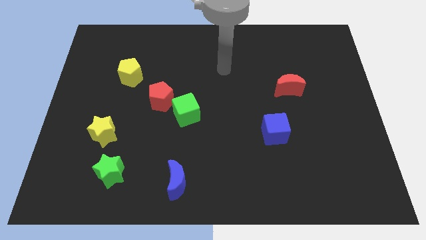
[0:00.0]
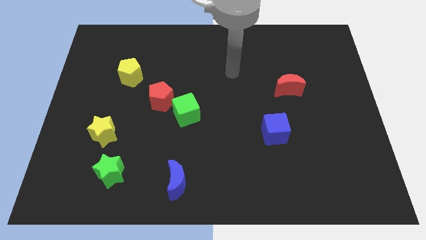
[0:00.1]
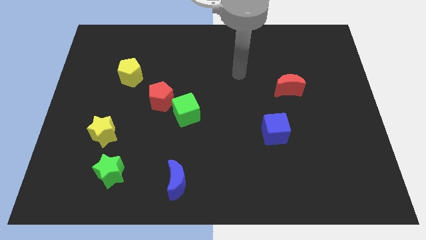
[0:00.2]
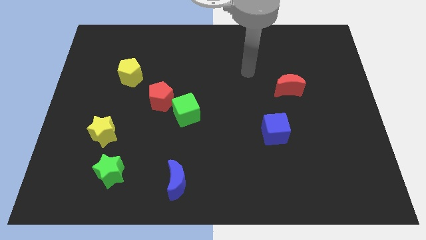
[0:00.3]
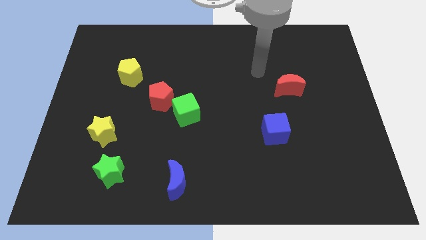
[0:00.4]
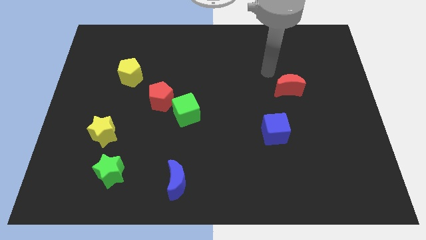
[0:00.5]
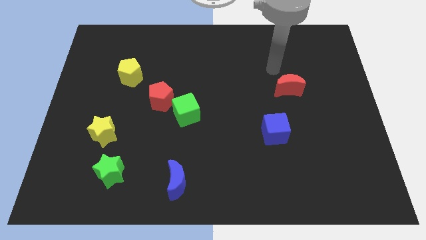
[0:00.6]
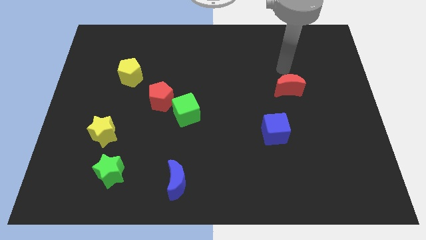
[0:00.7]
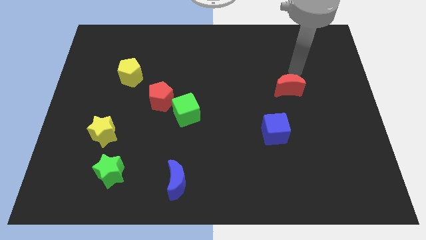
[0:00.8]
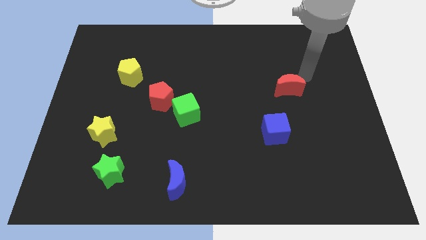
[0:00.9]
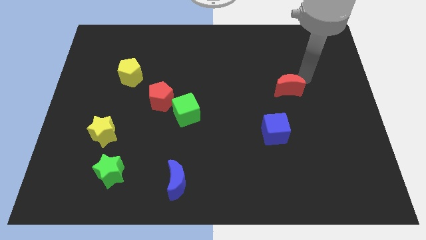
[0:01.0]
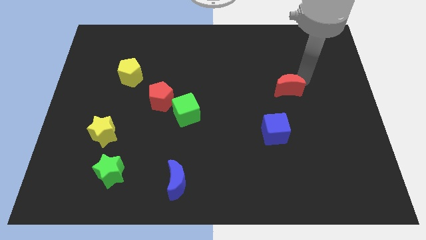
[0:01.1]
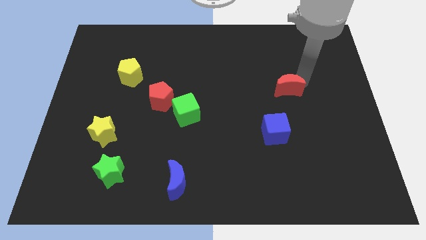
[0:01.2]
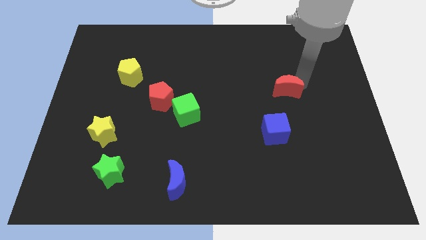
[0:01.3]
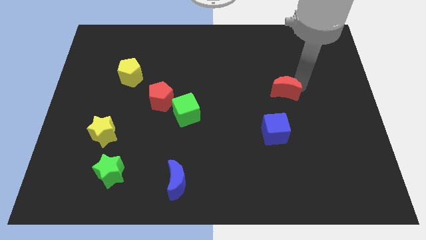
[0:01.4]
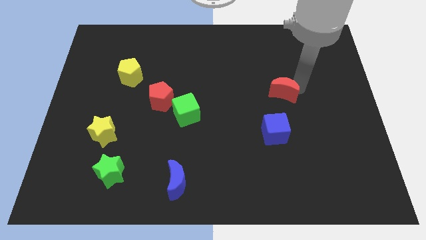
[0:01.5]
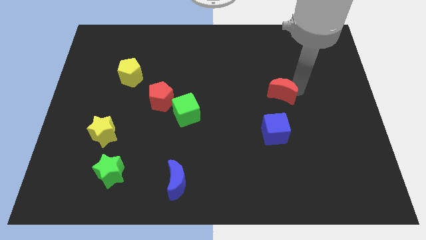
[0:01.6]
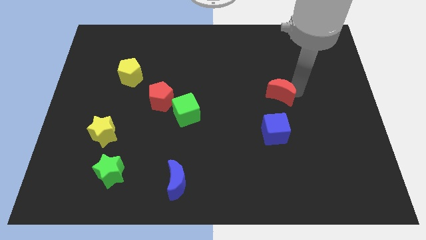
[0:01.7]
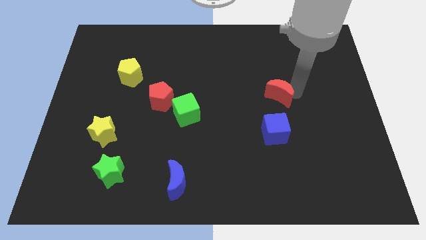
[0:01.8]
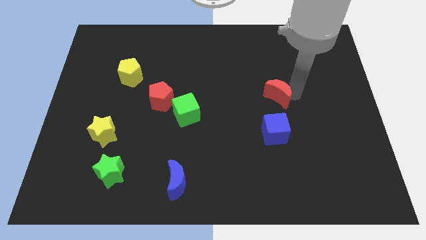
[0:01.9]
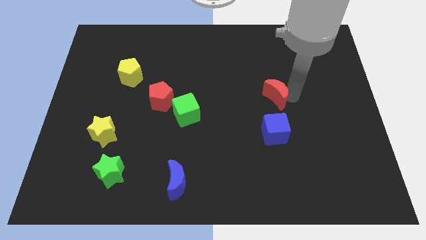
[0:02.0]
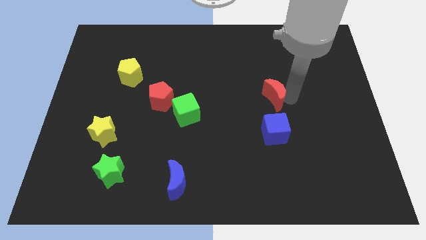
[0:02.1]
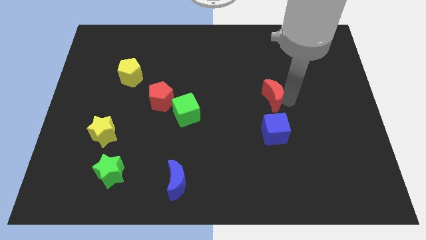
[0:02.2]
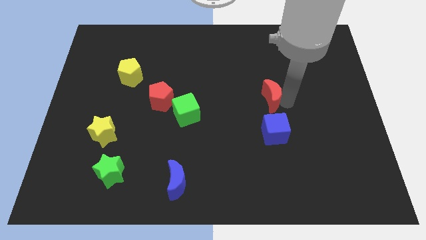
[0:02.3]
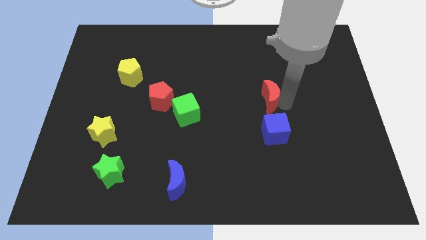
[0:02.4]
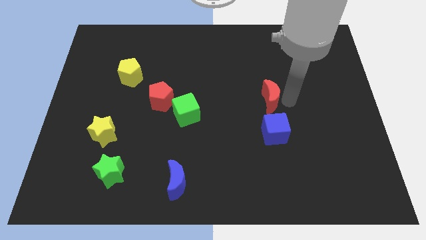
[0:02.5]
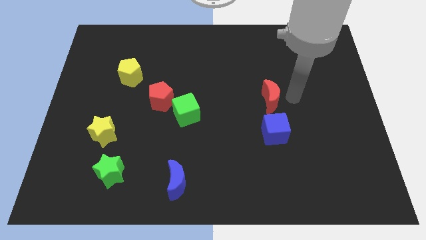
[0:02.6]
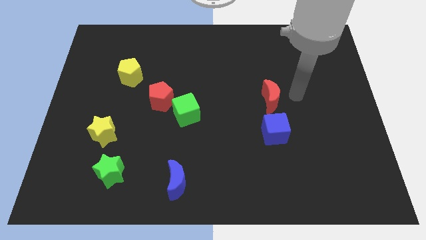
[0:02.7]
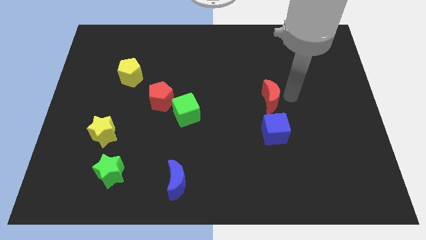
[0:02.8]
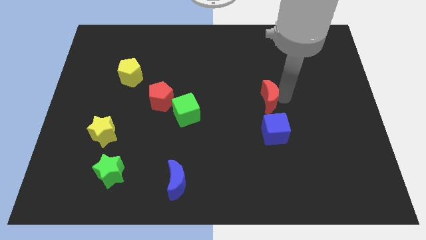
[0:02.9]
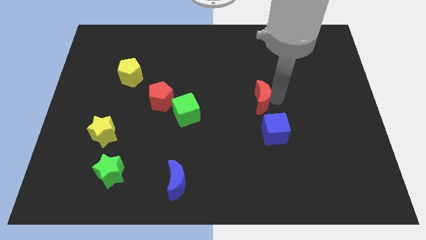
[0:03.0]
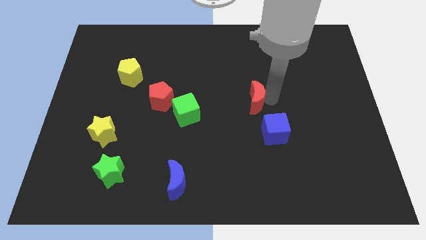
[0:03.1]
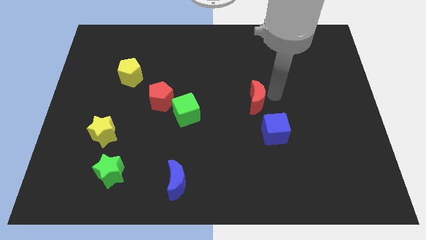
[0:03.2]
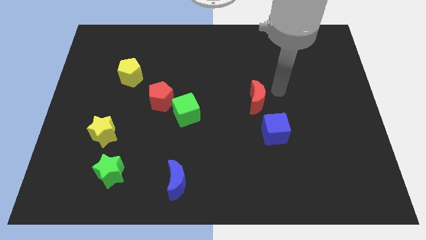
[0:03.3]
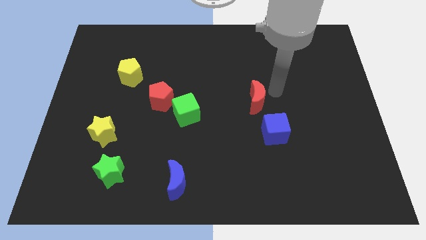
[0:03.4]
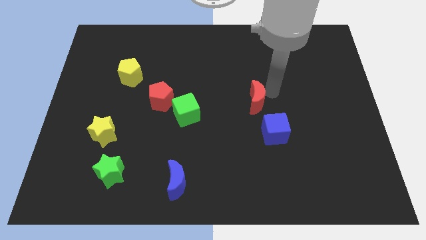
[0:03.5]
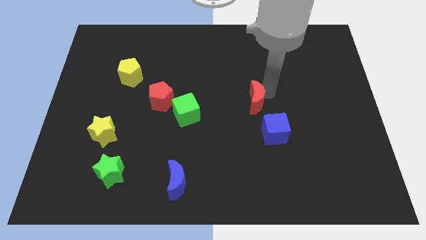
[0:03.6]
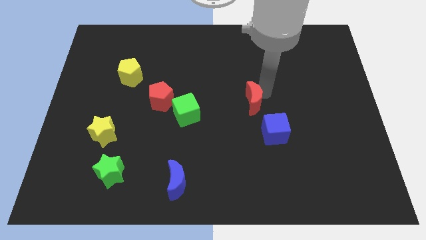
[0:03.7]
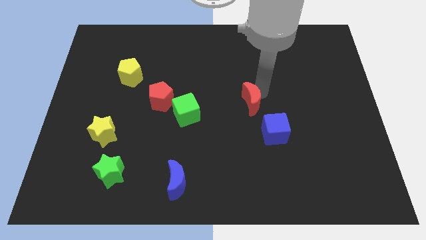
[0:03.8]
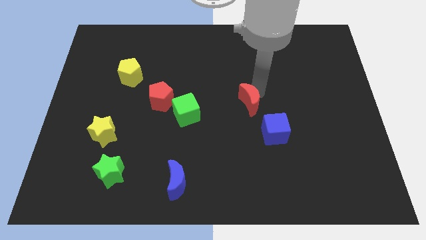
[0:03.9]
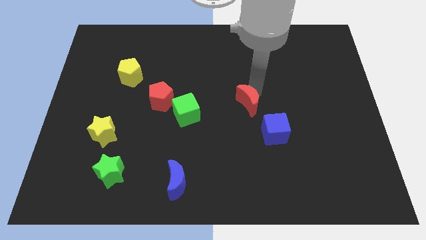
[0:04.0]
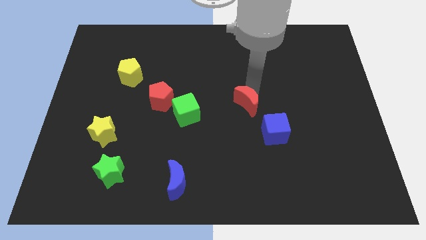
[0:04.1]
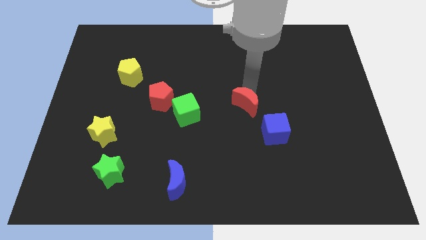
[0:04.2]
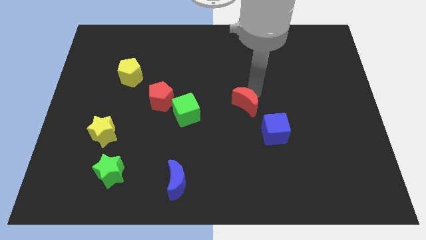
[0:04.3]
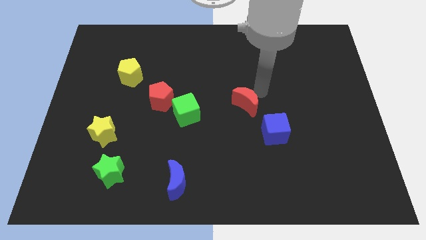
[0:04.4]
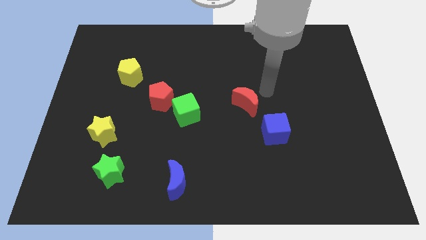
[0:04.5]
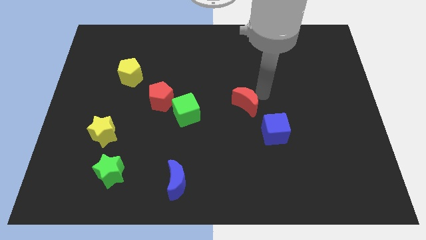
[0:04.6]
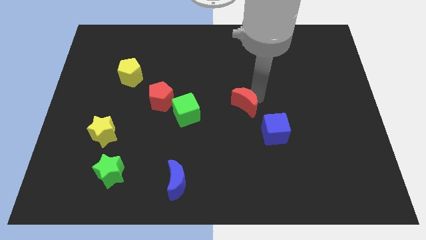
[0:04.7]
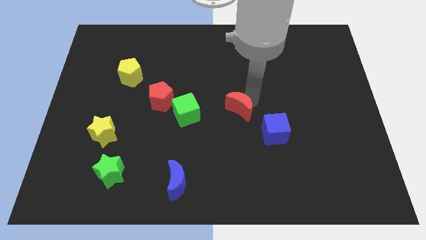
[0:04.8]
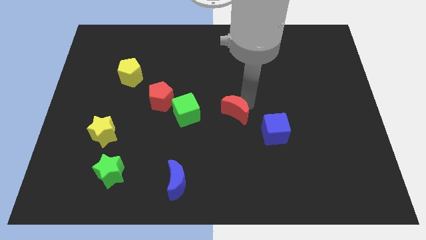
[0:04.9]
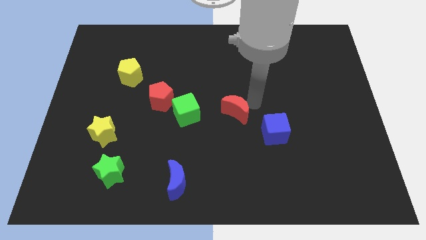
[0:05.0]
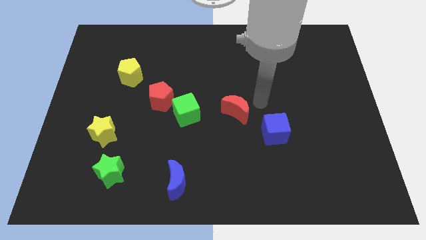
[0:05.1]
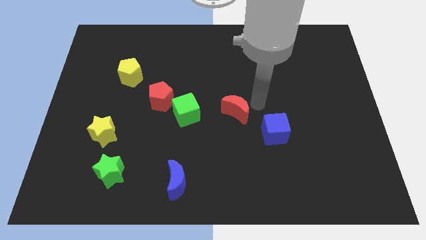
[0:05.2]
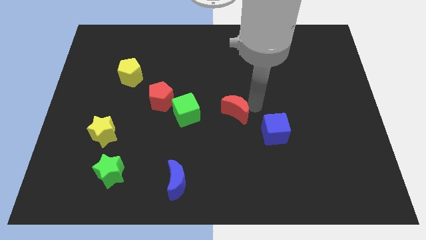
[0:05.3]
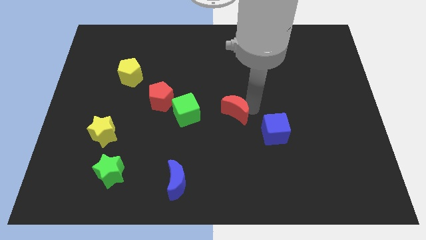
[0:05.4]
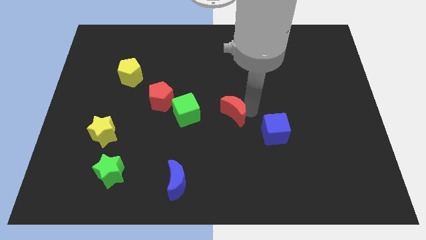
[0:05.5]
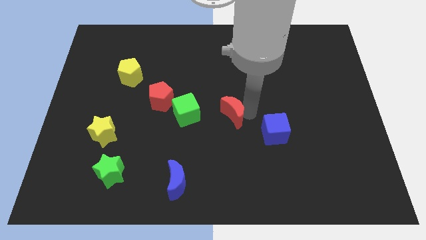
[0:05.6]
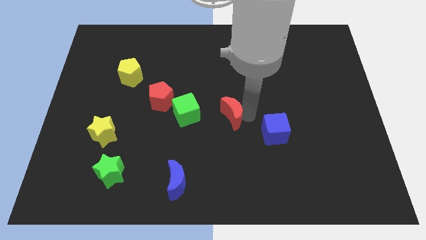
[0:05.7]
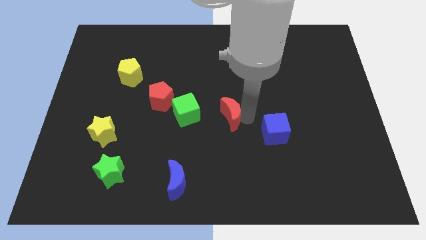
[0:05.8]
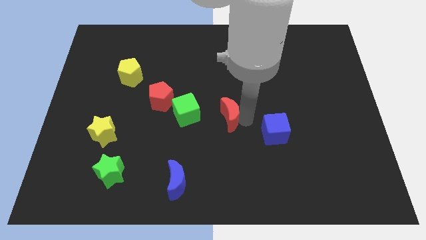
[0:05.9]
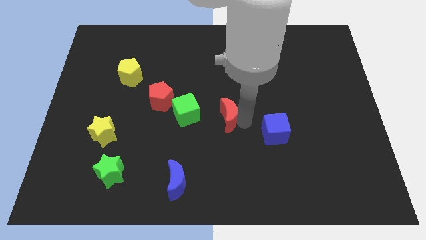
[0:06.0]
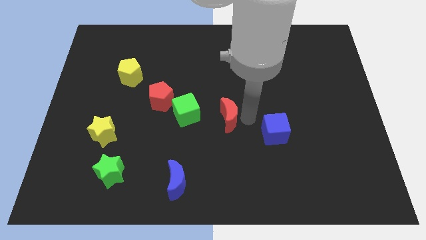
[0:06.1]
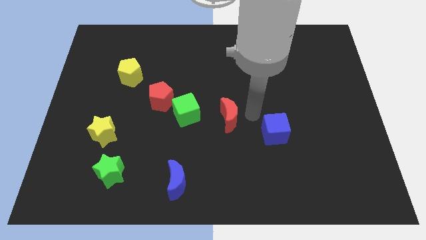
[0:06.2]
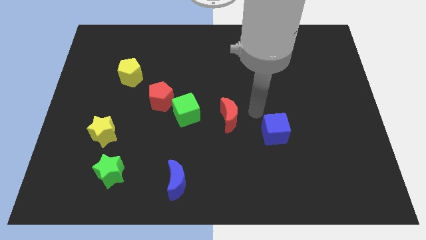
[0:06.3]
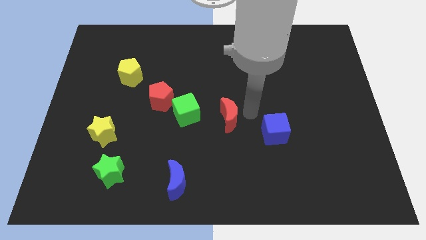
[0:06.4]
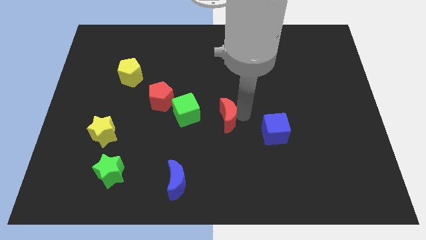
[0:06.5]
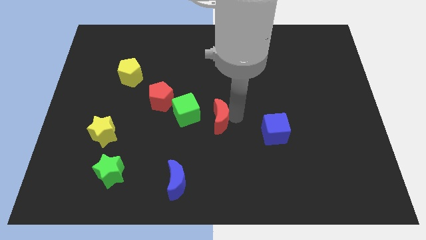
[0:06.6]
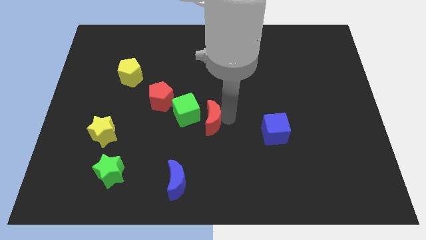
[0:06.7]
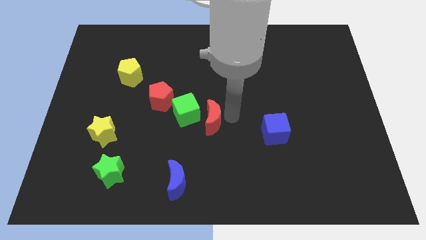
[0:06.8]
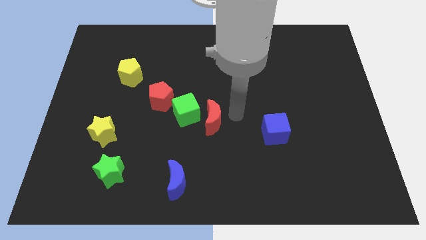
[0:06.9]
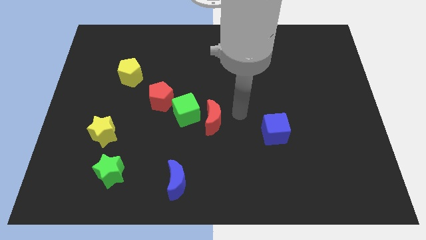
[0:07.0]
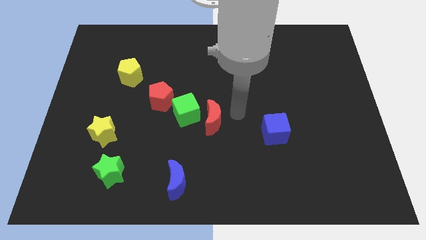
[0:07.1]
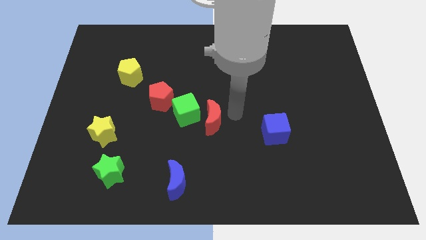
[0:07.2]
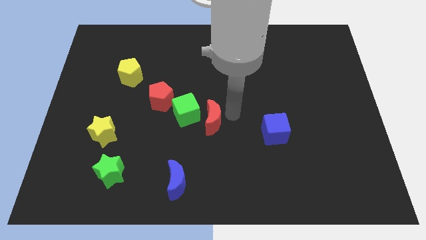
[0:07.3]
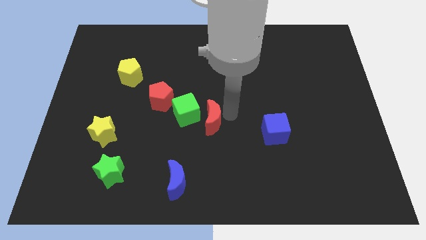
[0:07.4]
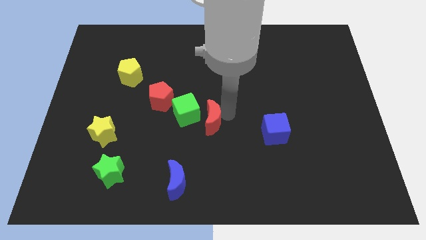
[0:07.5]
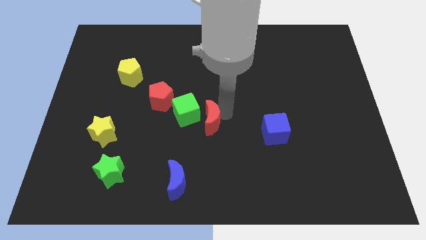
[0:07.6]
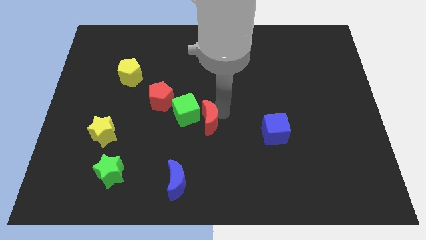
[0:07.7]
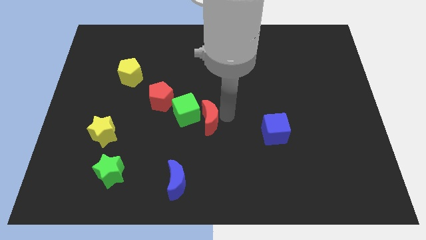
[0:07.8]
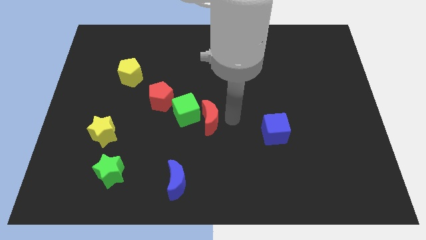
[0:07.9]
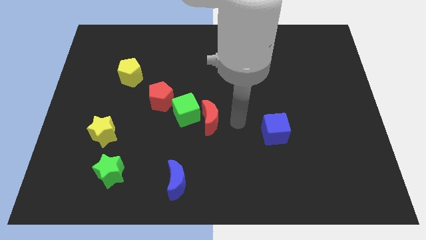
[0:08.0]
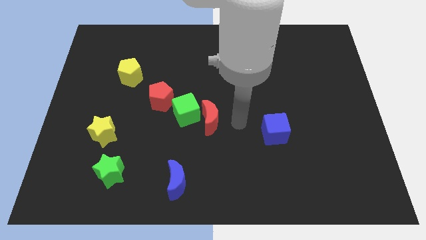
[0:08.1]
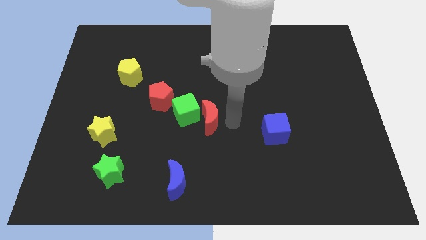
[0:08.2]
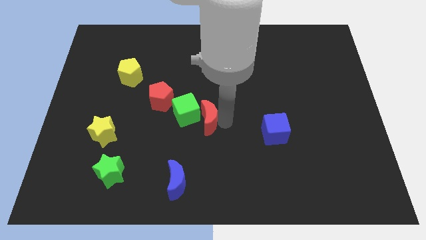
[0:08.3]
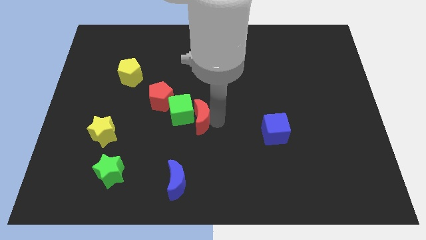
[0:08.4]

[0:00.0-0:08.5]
move the red moon to the bottom right side of the red pentagon
